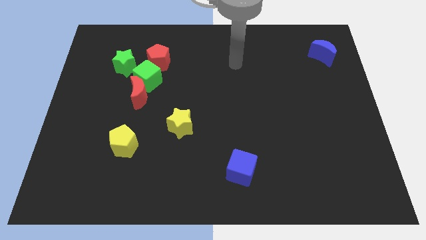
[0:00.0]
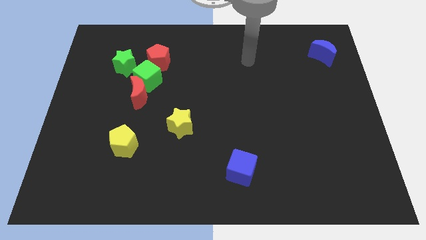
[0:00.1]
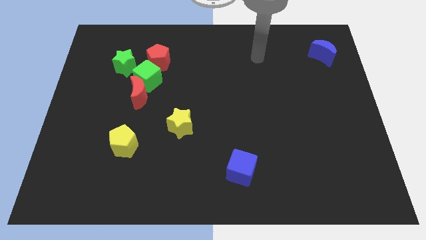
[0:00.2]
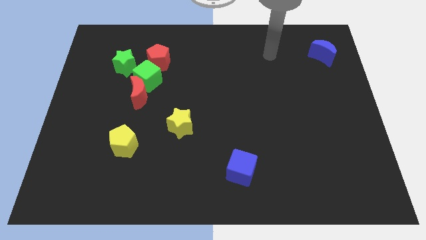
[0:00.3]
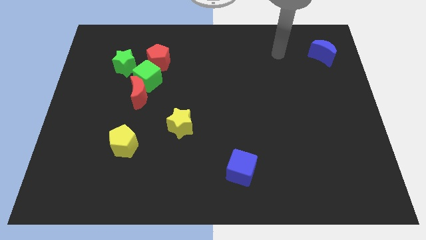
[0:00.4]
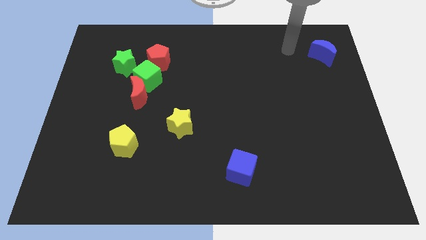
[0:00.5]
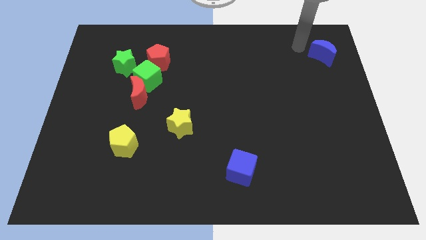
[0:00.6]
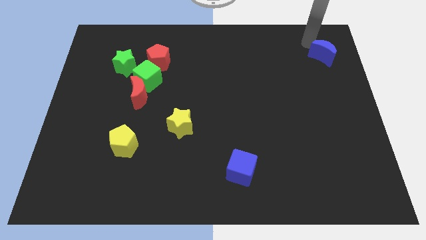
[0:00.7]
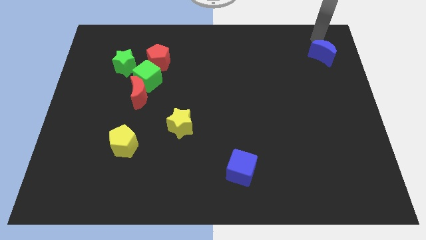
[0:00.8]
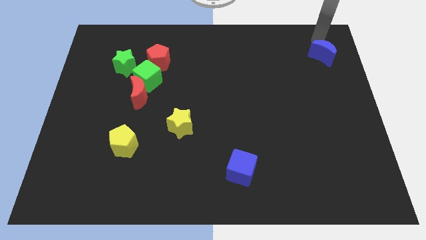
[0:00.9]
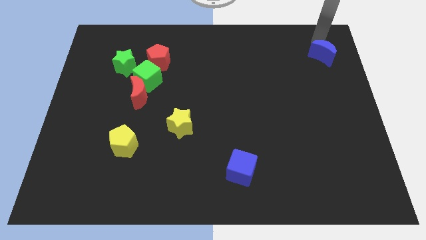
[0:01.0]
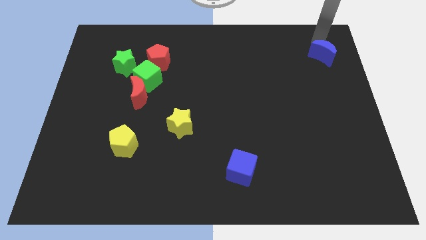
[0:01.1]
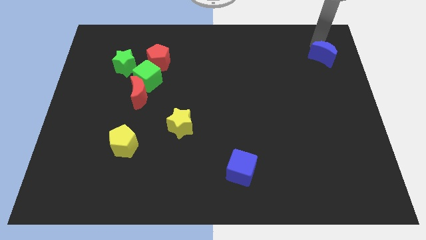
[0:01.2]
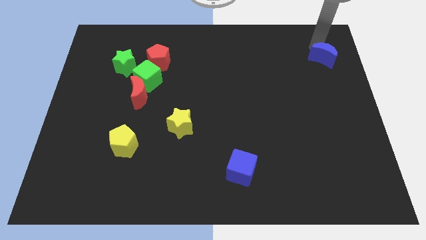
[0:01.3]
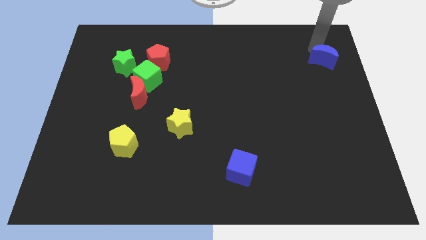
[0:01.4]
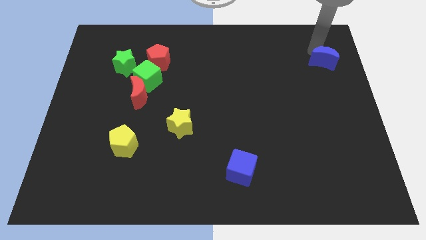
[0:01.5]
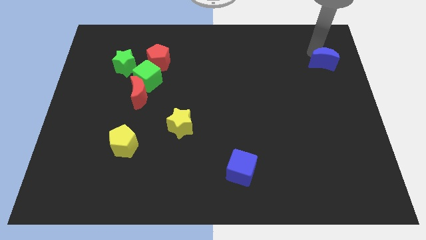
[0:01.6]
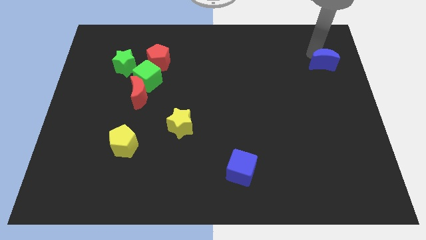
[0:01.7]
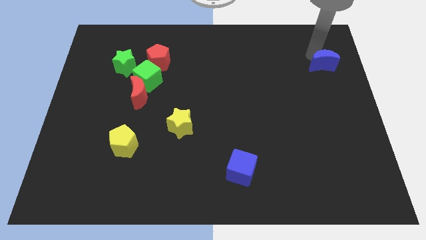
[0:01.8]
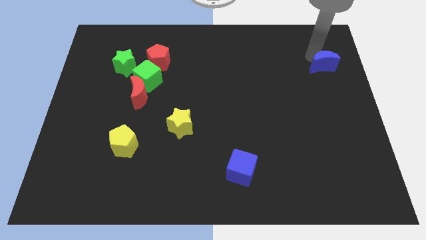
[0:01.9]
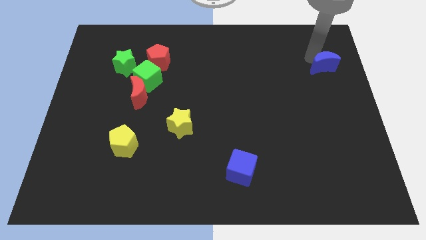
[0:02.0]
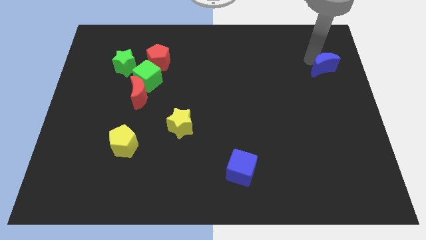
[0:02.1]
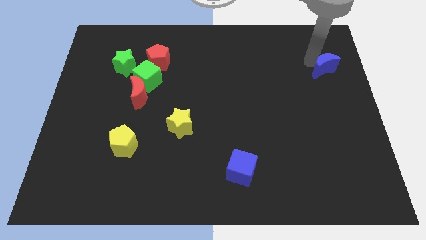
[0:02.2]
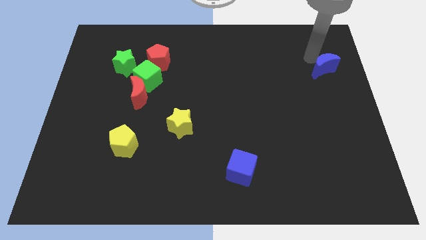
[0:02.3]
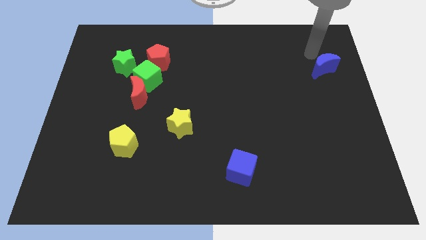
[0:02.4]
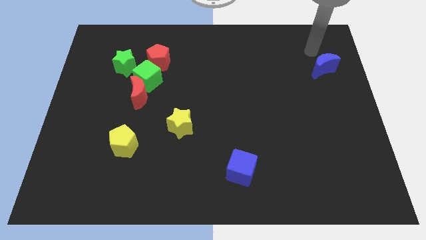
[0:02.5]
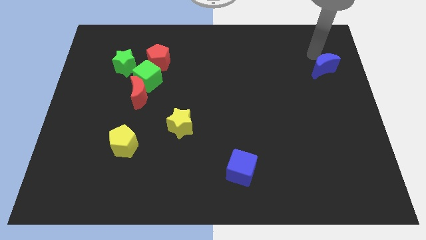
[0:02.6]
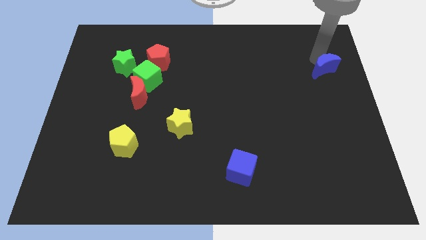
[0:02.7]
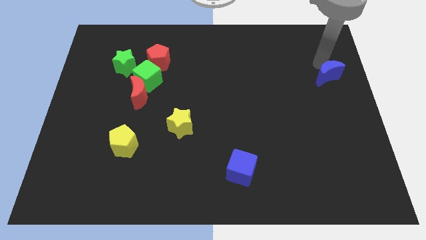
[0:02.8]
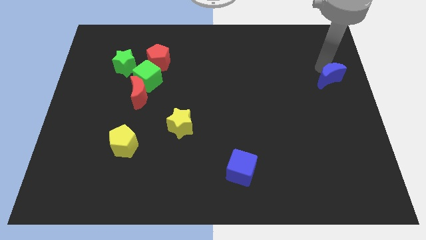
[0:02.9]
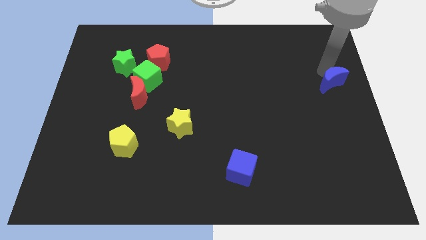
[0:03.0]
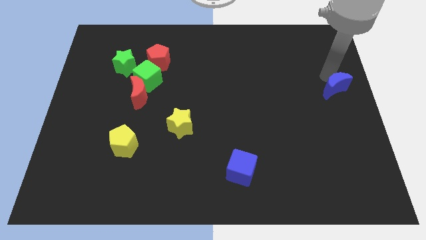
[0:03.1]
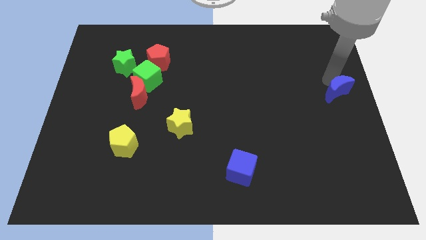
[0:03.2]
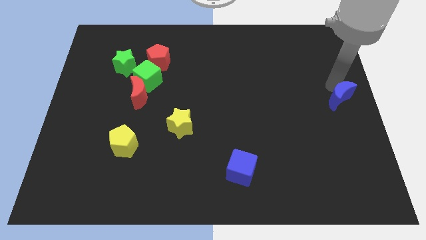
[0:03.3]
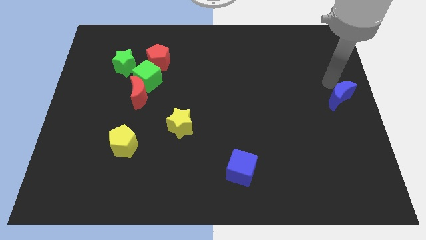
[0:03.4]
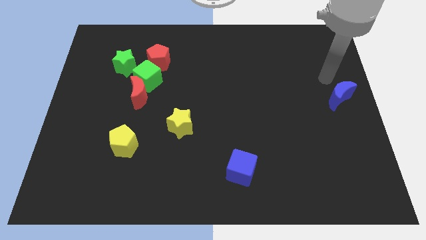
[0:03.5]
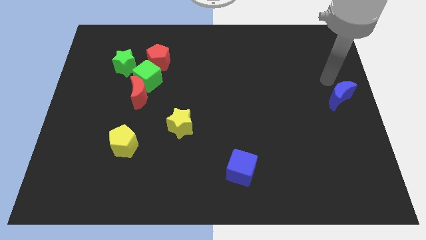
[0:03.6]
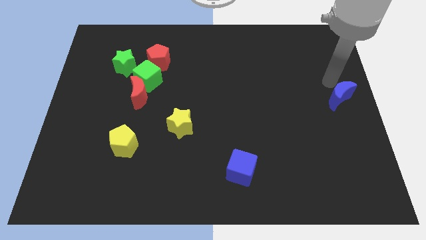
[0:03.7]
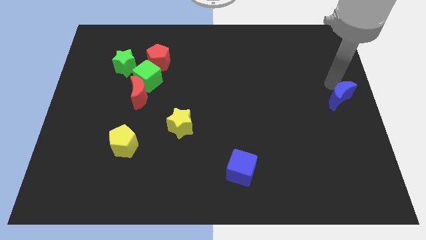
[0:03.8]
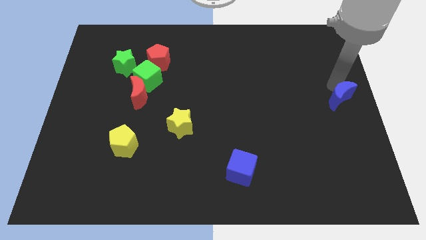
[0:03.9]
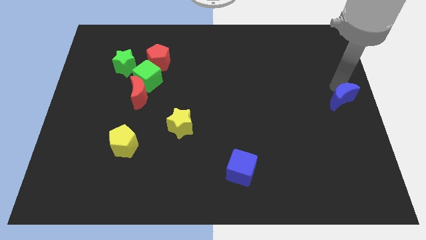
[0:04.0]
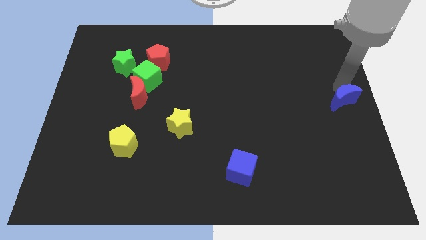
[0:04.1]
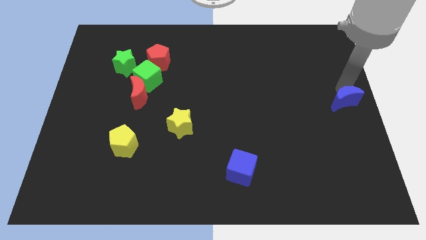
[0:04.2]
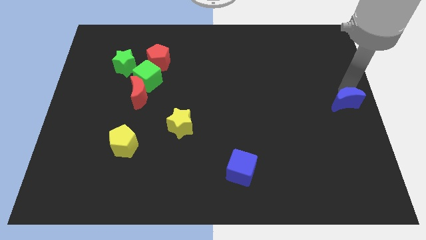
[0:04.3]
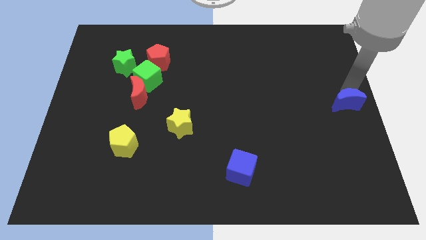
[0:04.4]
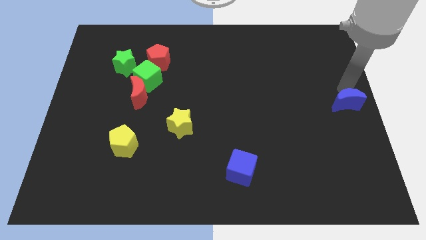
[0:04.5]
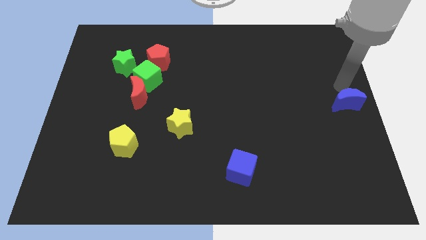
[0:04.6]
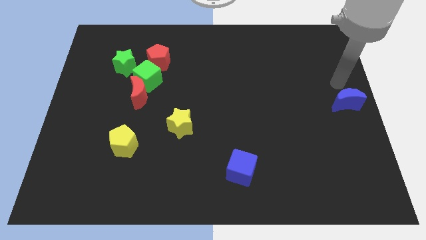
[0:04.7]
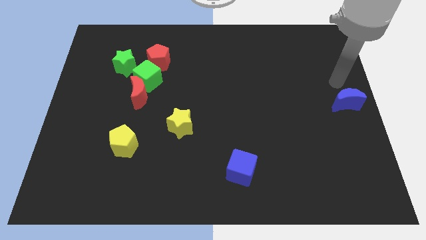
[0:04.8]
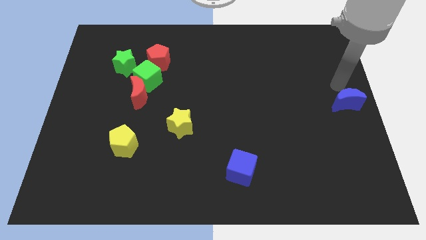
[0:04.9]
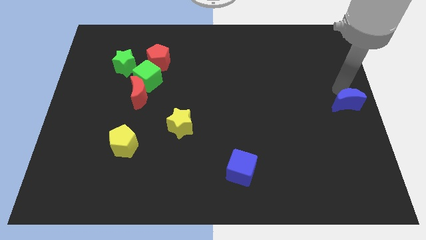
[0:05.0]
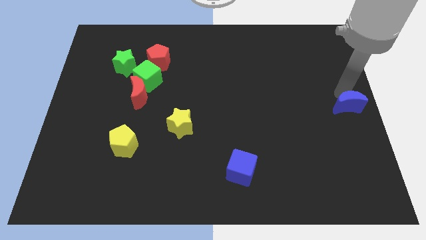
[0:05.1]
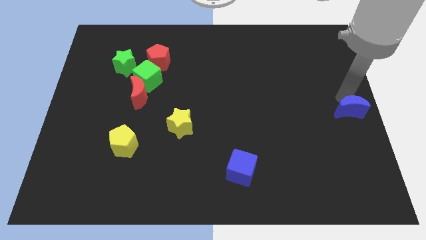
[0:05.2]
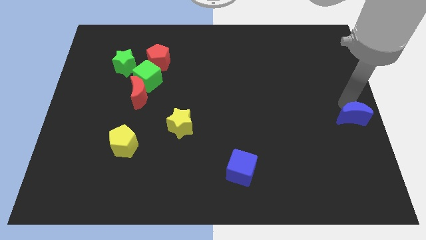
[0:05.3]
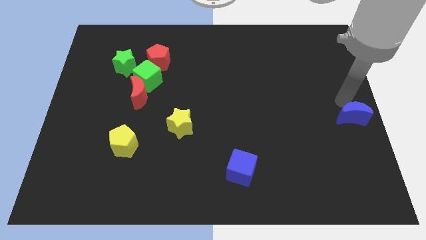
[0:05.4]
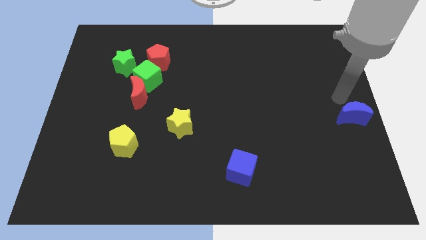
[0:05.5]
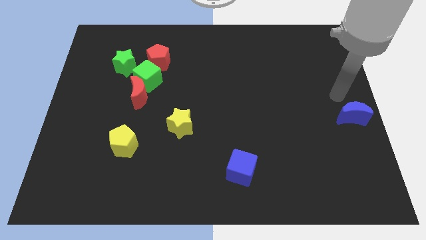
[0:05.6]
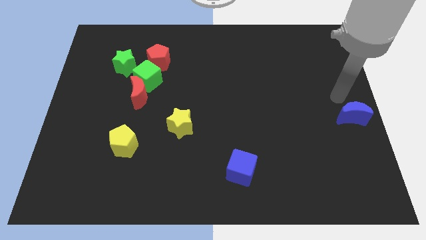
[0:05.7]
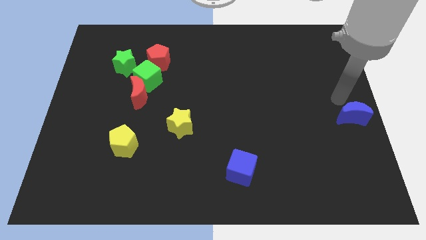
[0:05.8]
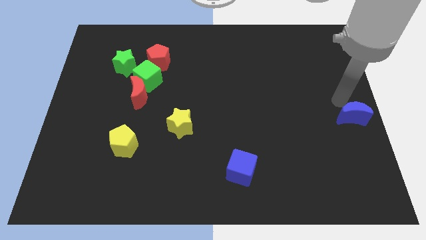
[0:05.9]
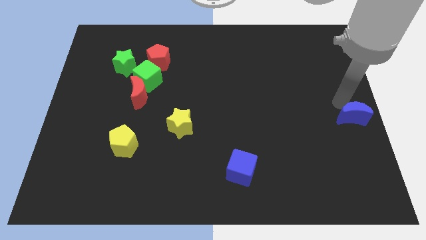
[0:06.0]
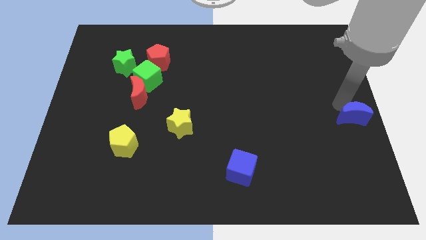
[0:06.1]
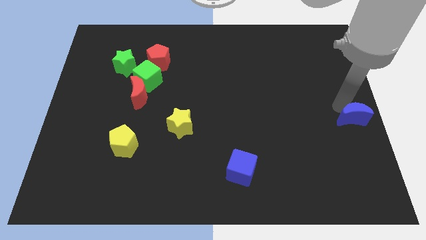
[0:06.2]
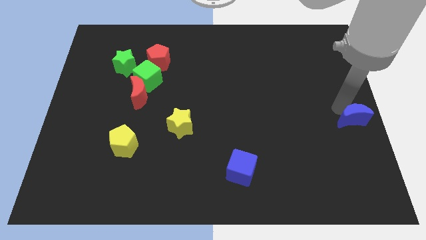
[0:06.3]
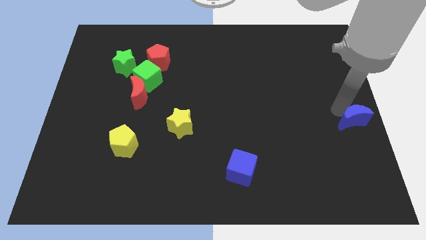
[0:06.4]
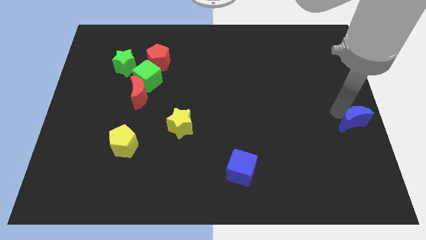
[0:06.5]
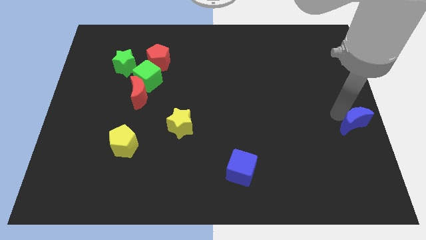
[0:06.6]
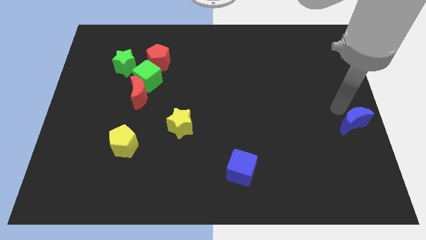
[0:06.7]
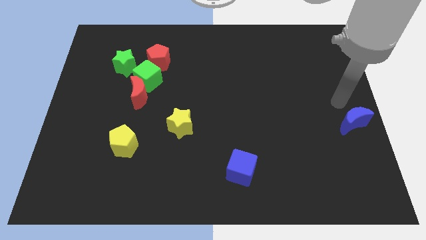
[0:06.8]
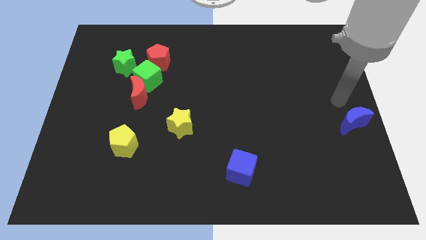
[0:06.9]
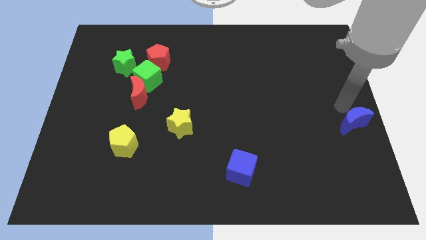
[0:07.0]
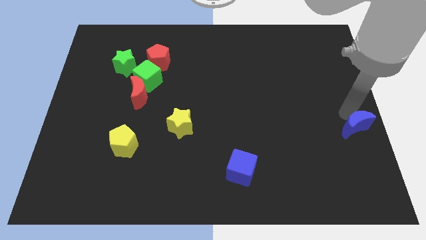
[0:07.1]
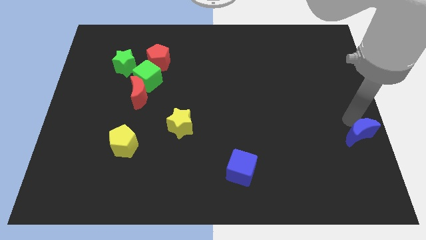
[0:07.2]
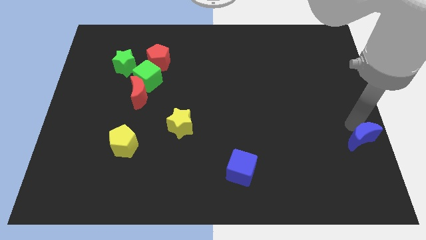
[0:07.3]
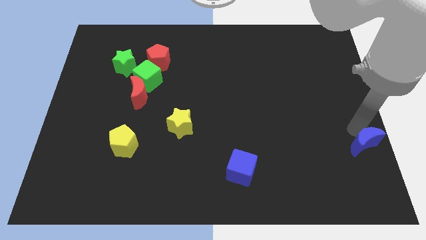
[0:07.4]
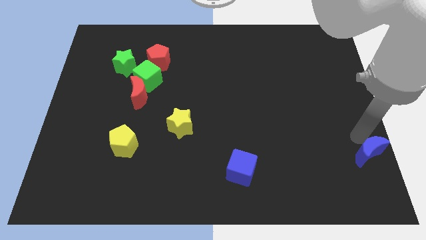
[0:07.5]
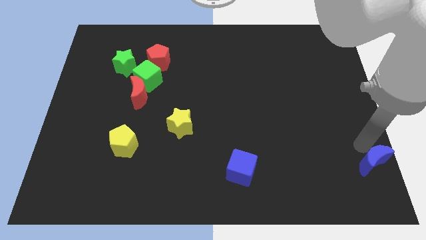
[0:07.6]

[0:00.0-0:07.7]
slide the blue moon to the lower right corner
